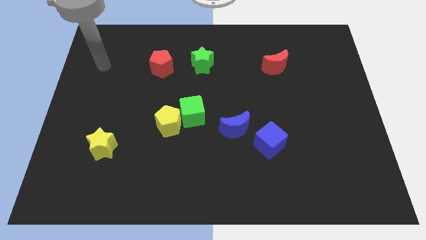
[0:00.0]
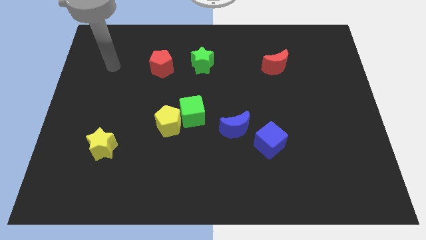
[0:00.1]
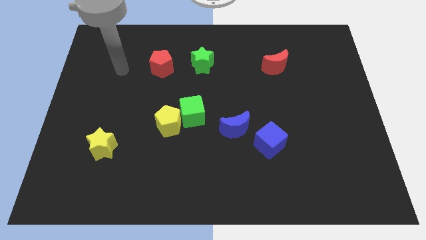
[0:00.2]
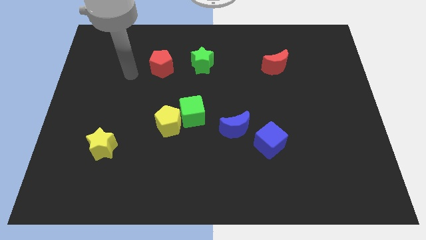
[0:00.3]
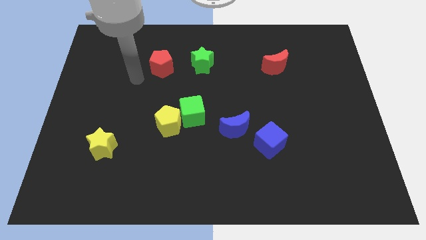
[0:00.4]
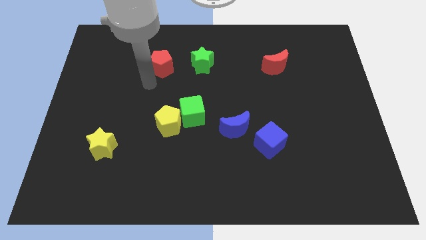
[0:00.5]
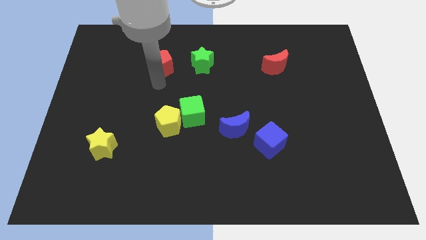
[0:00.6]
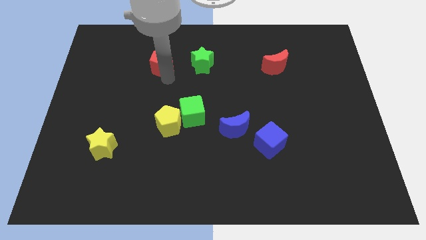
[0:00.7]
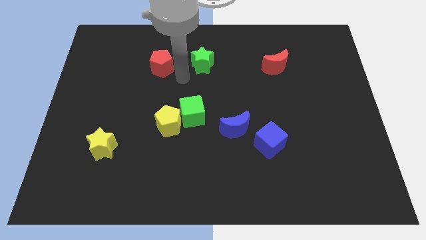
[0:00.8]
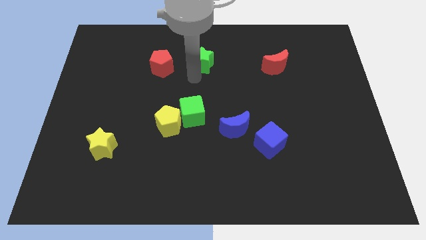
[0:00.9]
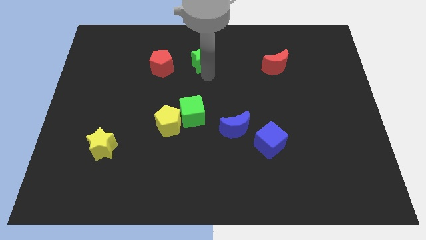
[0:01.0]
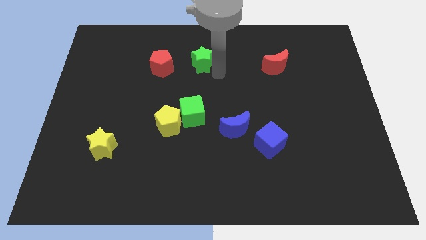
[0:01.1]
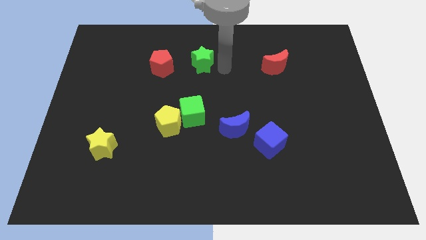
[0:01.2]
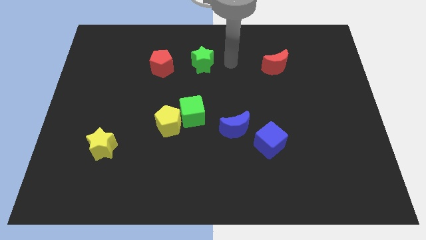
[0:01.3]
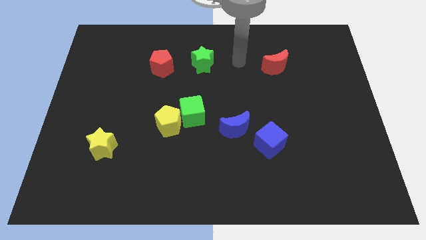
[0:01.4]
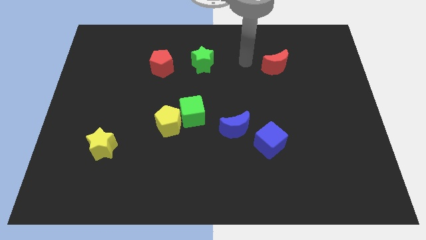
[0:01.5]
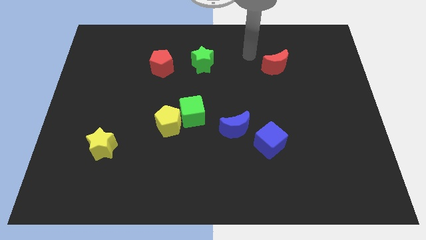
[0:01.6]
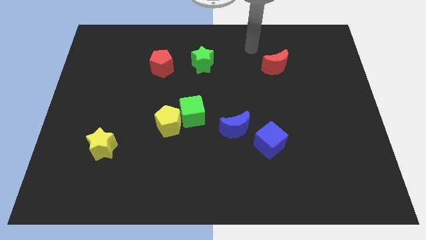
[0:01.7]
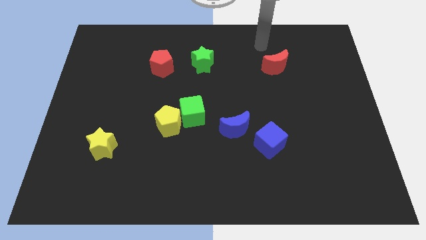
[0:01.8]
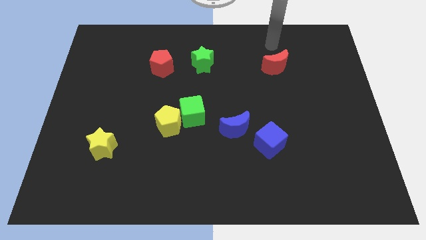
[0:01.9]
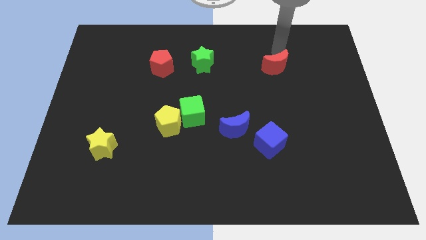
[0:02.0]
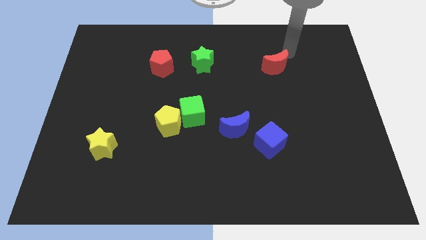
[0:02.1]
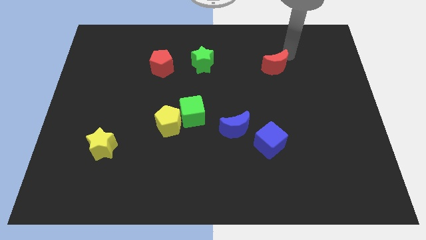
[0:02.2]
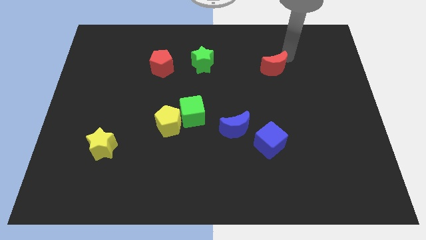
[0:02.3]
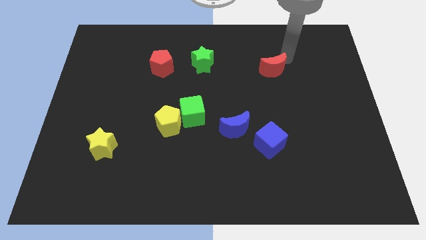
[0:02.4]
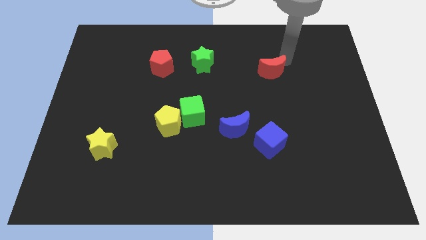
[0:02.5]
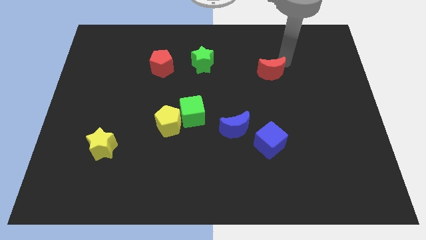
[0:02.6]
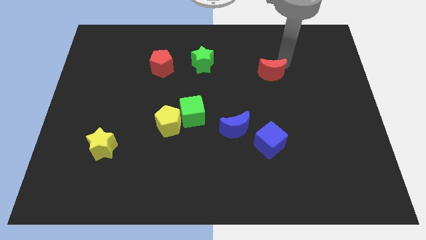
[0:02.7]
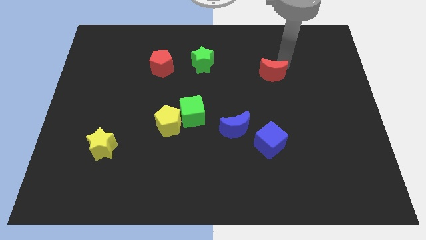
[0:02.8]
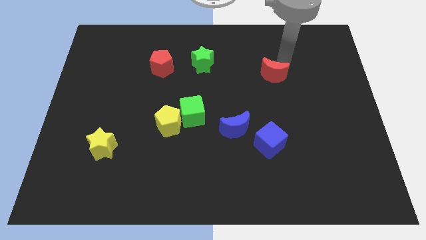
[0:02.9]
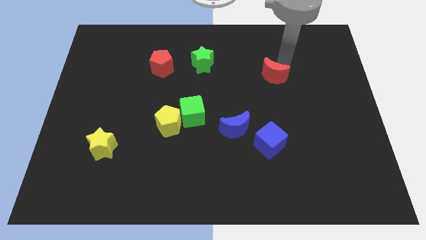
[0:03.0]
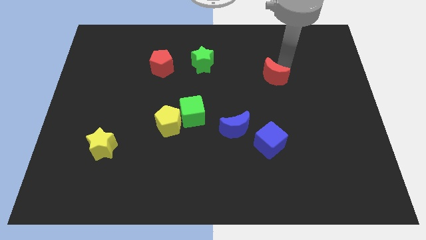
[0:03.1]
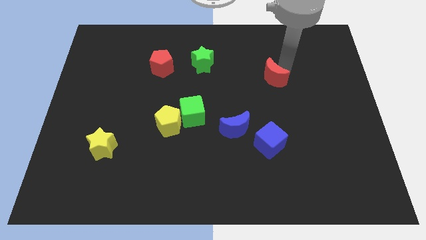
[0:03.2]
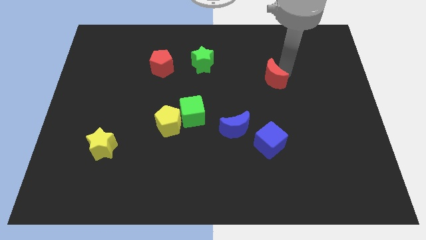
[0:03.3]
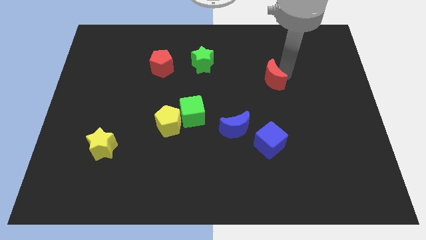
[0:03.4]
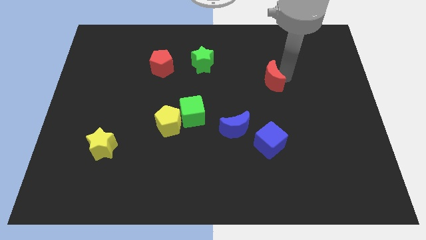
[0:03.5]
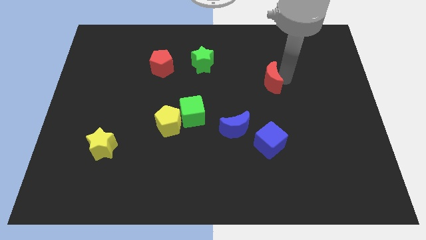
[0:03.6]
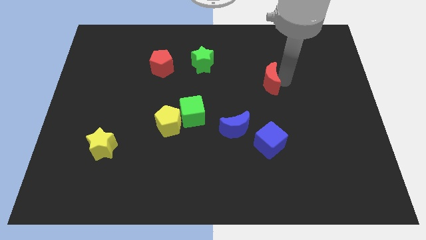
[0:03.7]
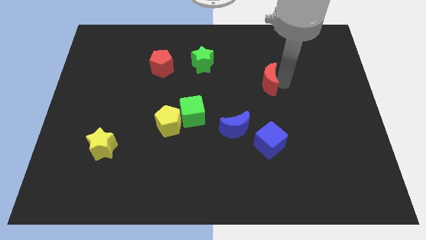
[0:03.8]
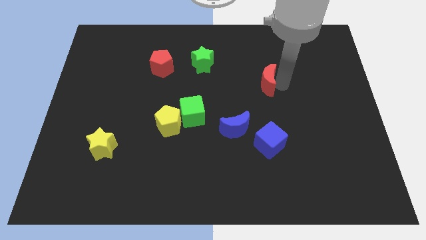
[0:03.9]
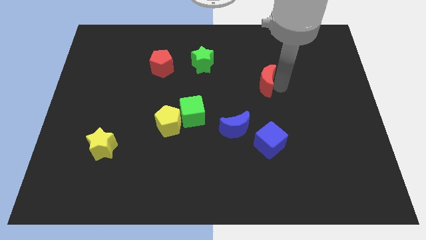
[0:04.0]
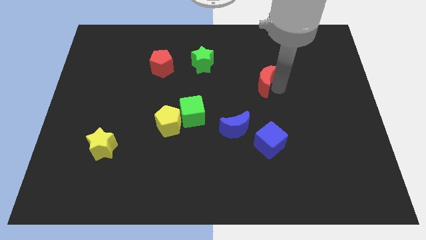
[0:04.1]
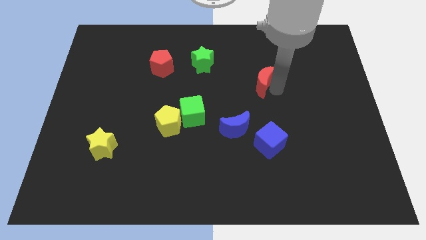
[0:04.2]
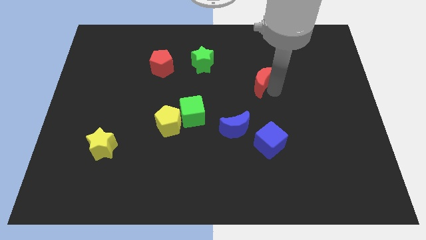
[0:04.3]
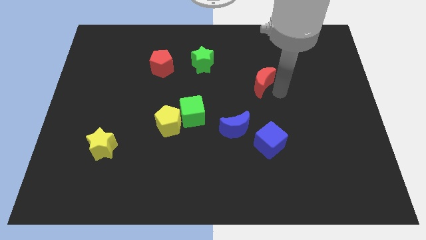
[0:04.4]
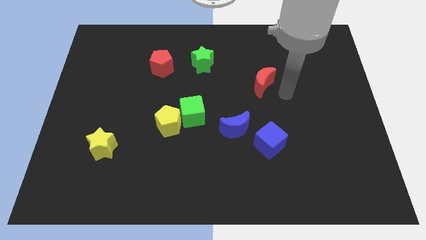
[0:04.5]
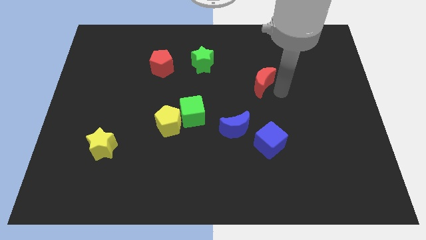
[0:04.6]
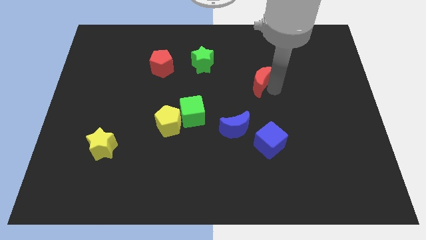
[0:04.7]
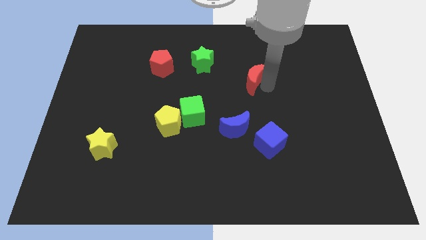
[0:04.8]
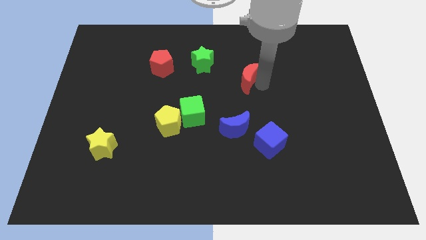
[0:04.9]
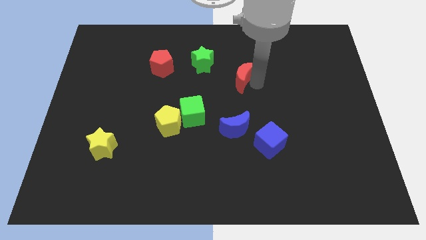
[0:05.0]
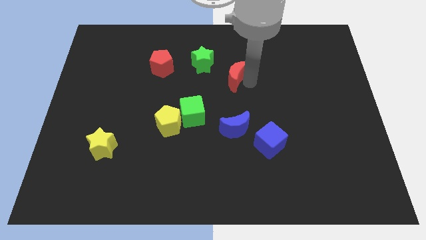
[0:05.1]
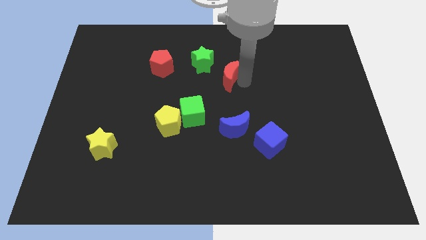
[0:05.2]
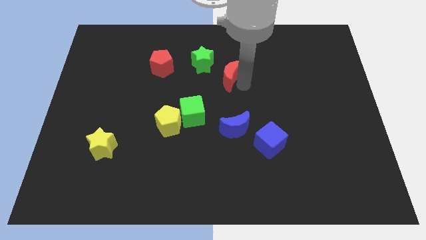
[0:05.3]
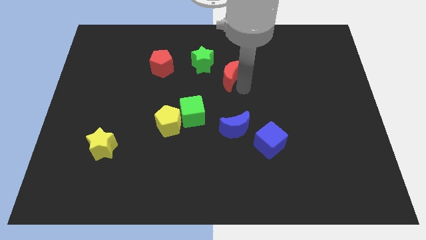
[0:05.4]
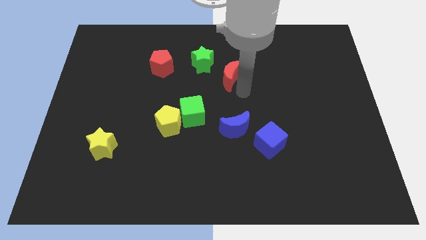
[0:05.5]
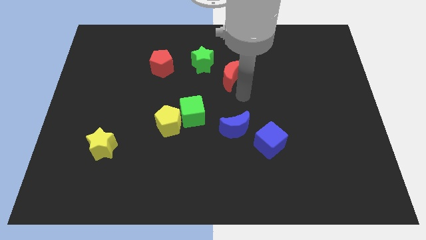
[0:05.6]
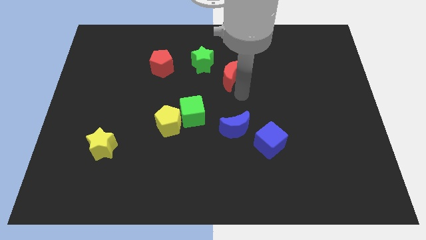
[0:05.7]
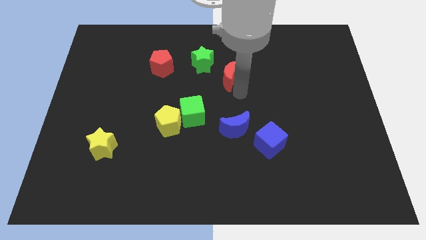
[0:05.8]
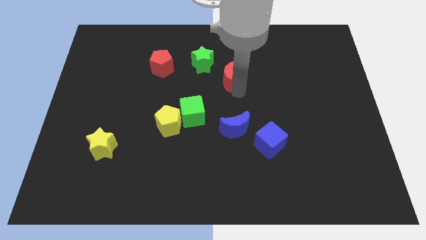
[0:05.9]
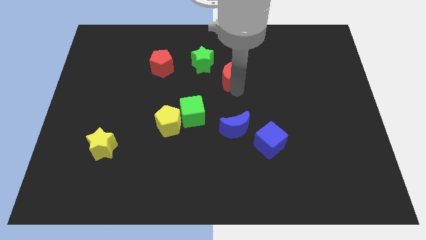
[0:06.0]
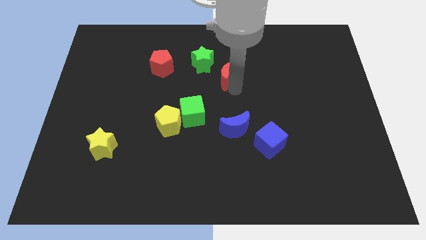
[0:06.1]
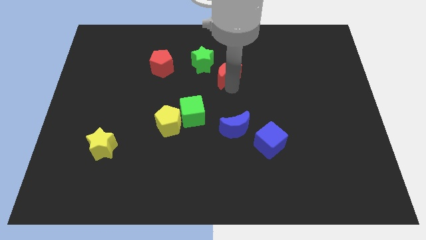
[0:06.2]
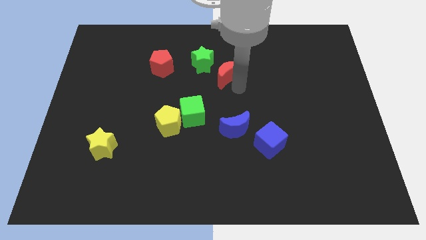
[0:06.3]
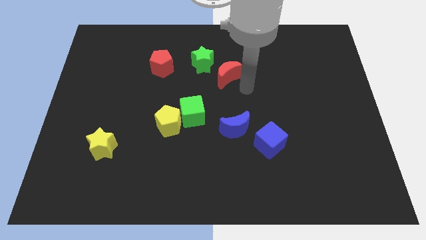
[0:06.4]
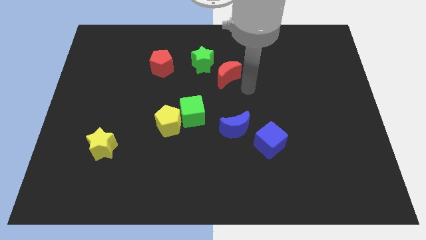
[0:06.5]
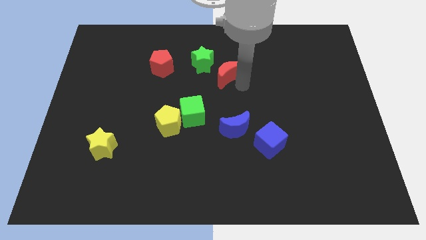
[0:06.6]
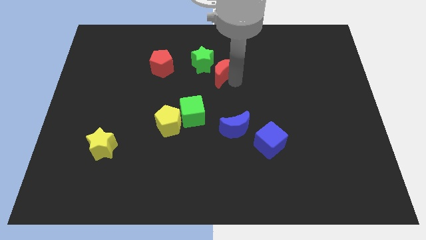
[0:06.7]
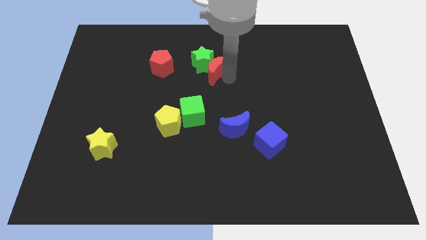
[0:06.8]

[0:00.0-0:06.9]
push the red moon close to the green star
